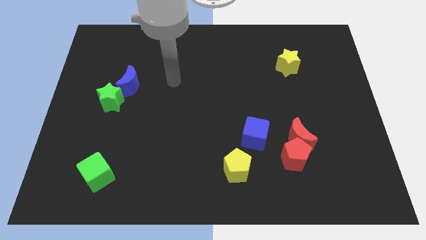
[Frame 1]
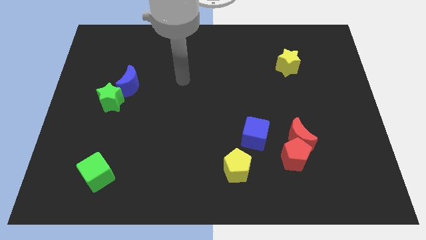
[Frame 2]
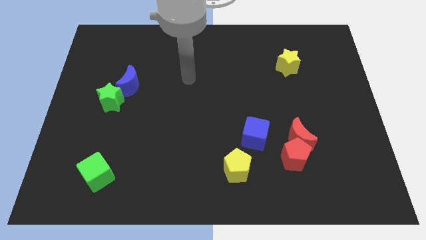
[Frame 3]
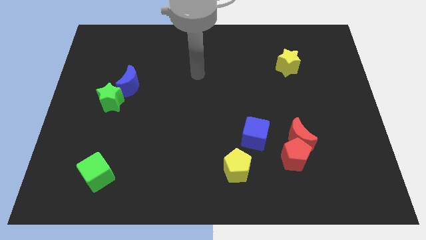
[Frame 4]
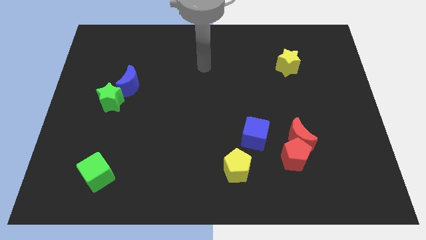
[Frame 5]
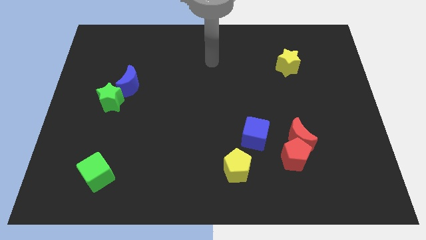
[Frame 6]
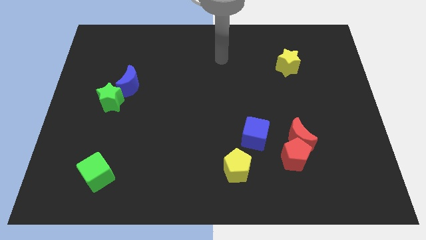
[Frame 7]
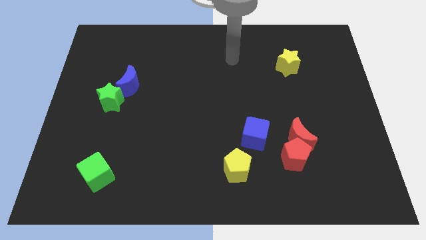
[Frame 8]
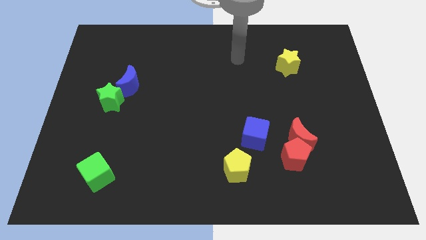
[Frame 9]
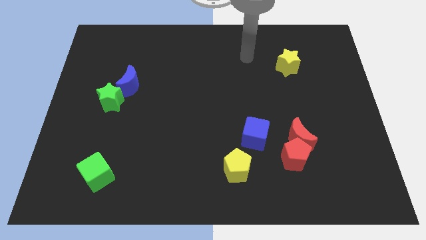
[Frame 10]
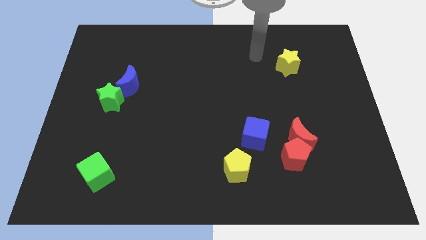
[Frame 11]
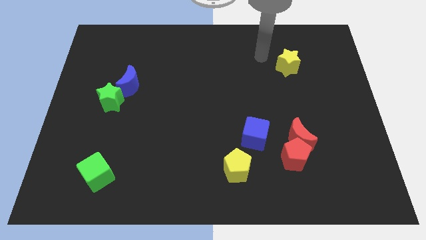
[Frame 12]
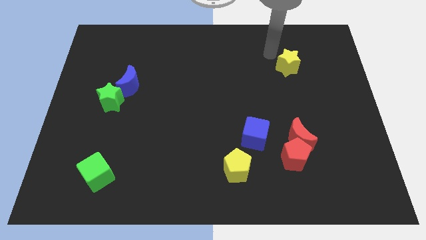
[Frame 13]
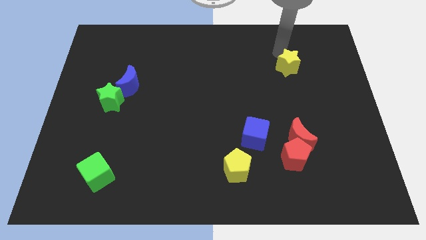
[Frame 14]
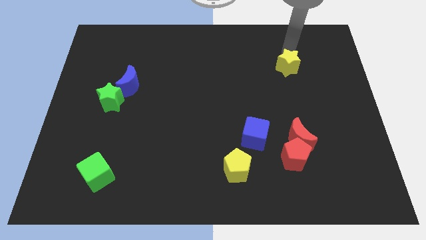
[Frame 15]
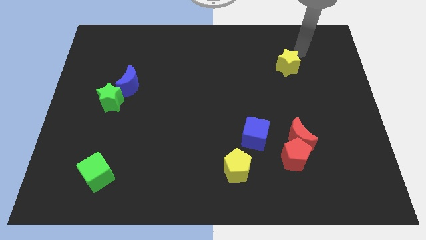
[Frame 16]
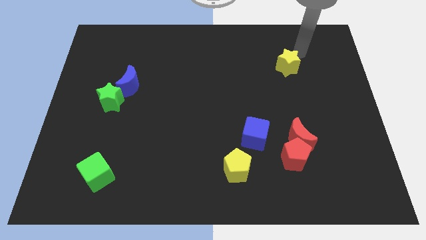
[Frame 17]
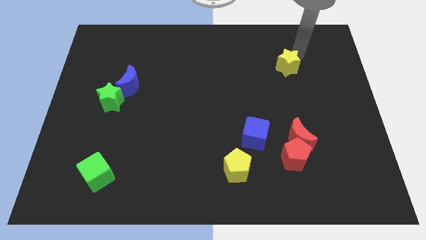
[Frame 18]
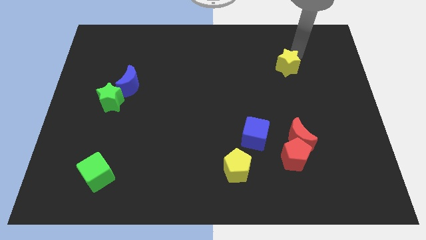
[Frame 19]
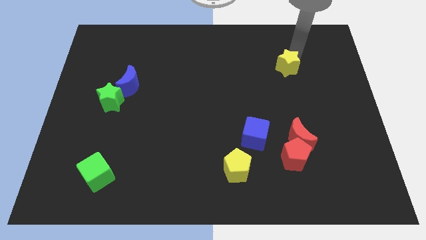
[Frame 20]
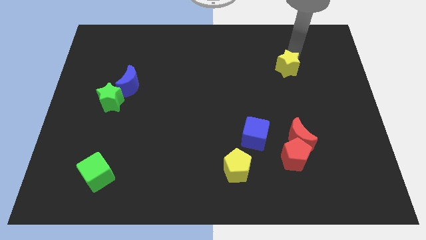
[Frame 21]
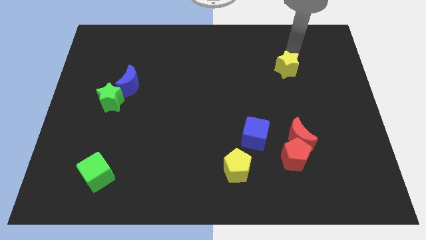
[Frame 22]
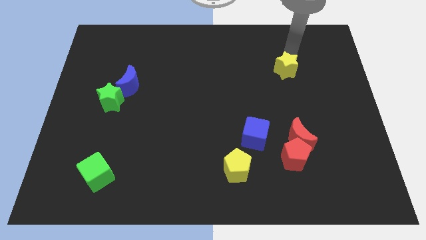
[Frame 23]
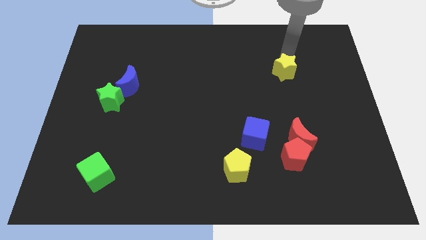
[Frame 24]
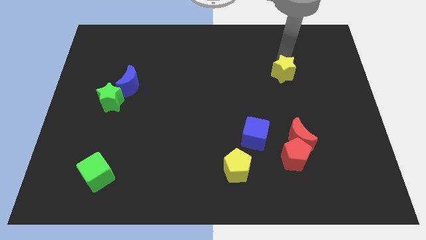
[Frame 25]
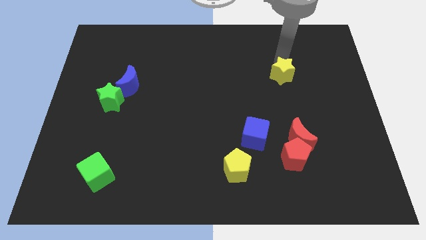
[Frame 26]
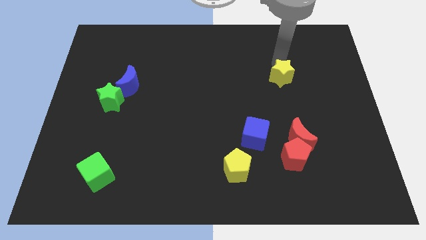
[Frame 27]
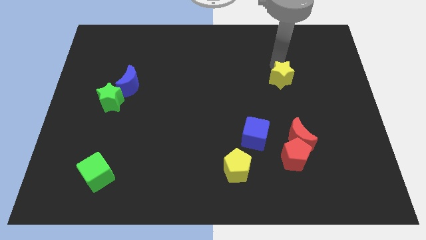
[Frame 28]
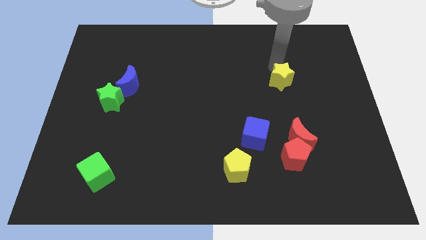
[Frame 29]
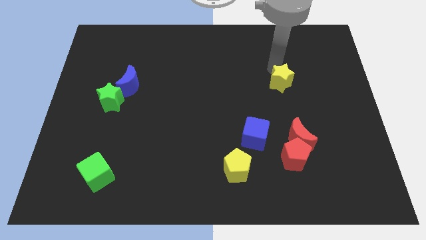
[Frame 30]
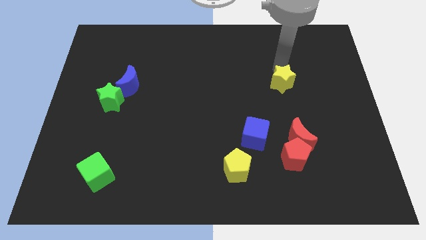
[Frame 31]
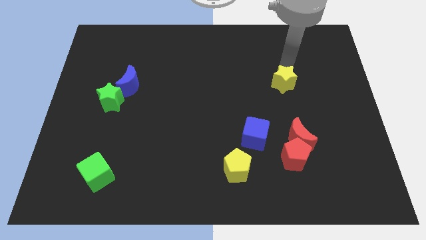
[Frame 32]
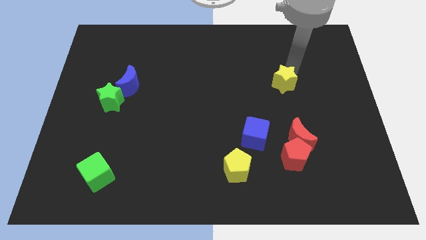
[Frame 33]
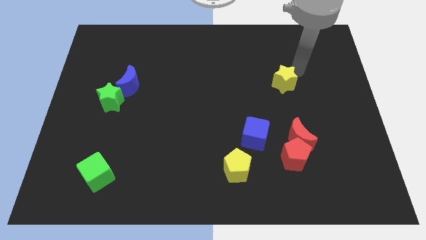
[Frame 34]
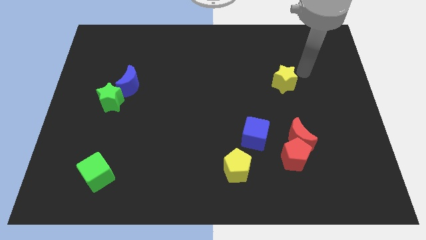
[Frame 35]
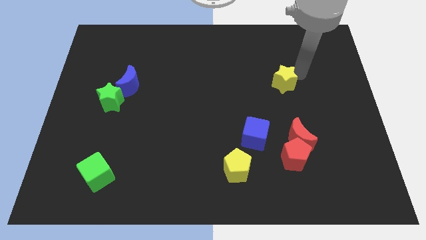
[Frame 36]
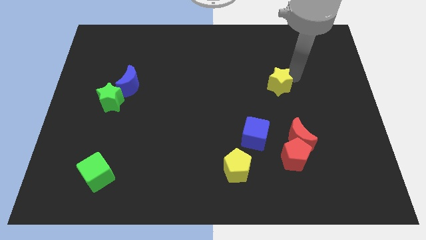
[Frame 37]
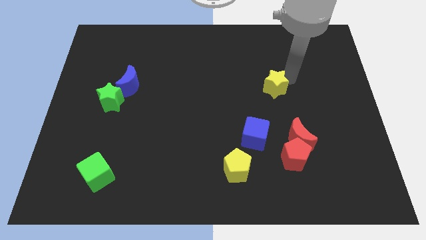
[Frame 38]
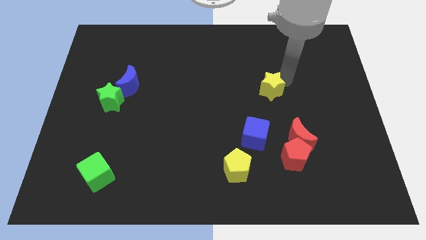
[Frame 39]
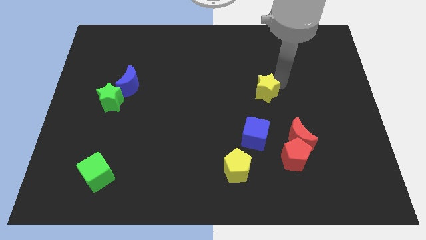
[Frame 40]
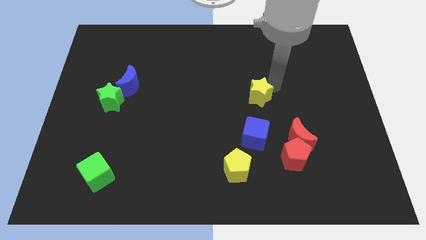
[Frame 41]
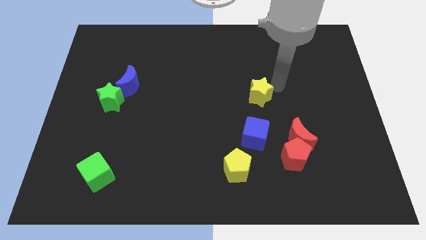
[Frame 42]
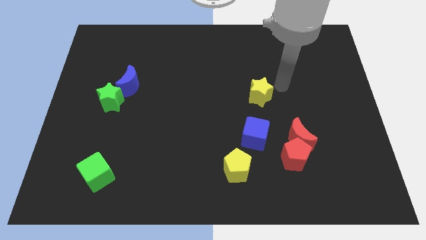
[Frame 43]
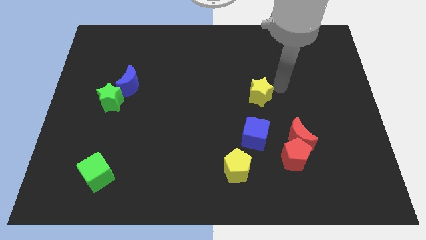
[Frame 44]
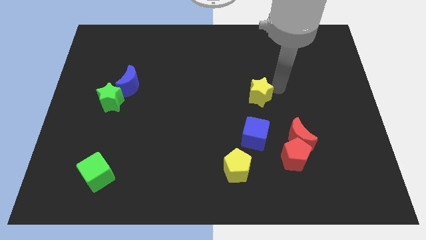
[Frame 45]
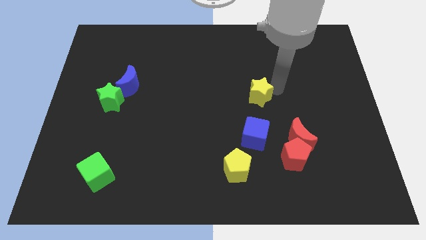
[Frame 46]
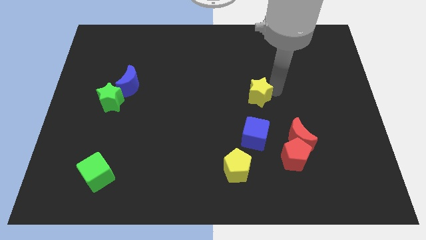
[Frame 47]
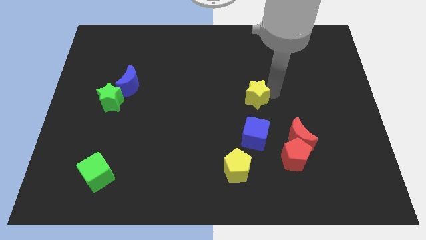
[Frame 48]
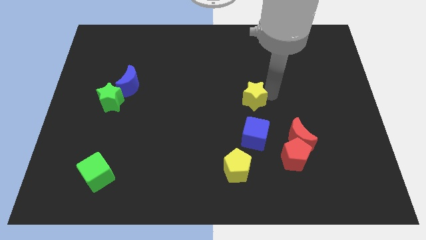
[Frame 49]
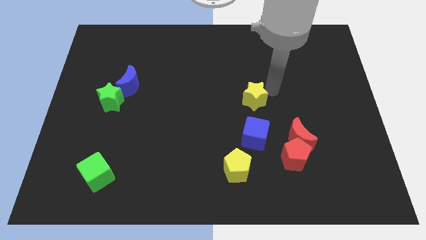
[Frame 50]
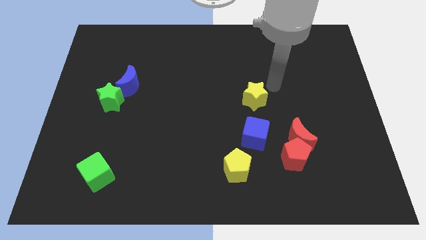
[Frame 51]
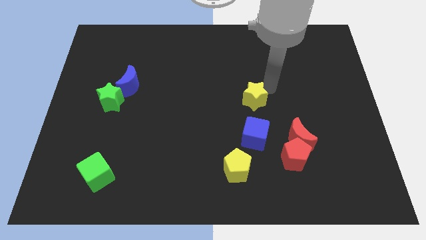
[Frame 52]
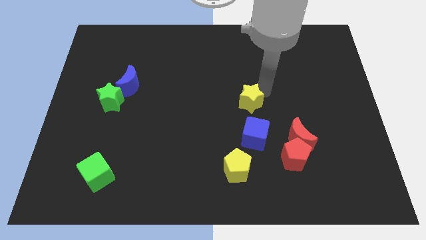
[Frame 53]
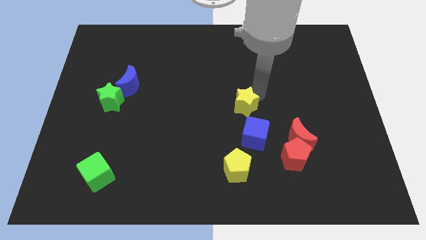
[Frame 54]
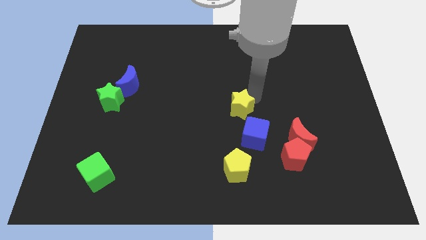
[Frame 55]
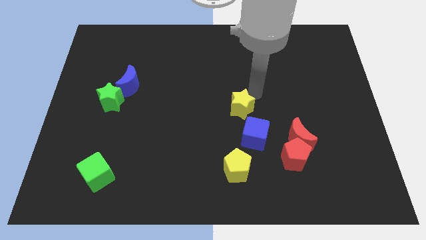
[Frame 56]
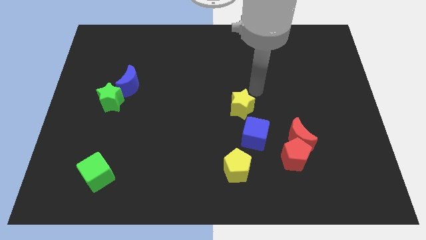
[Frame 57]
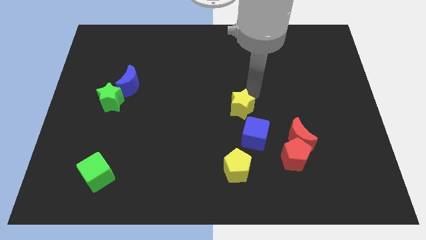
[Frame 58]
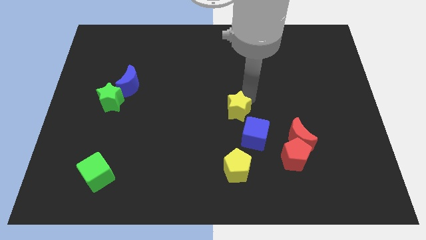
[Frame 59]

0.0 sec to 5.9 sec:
move the yellow star down and to the left diagonally

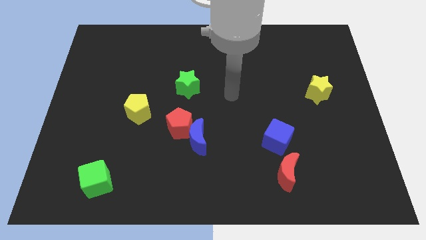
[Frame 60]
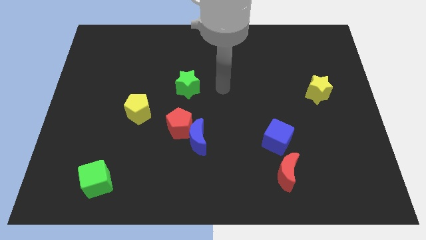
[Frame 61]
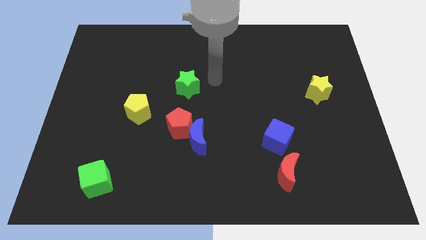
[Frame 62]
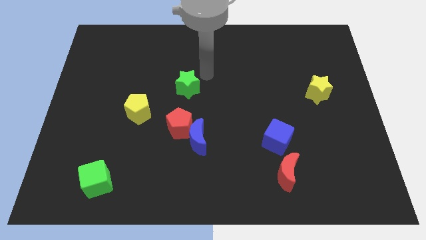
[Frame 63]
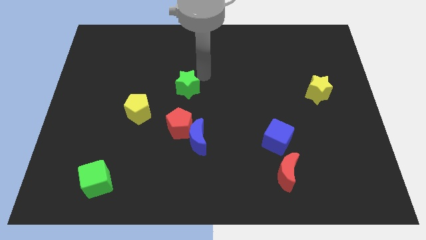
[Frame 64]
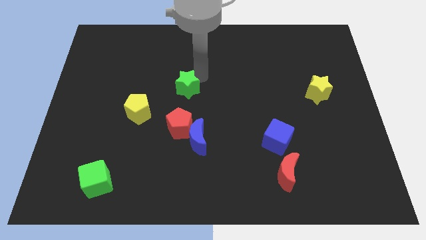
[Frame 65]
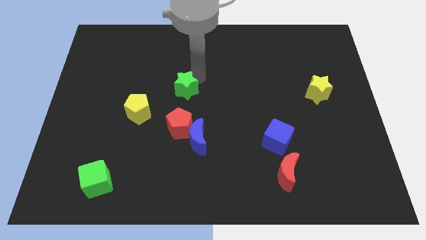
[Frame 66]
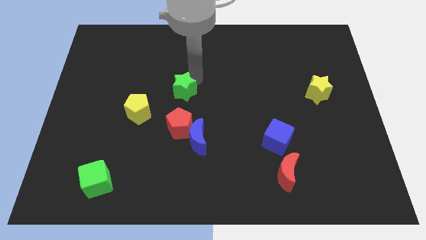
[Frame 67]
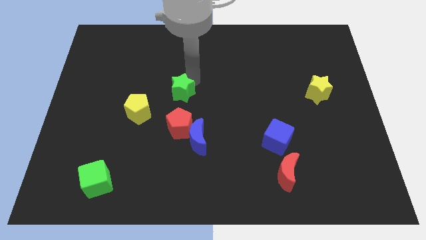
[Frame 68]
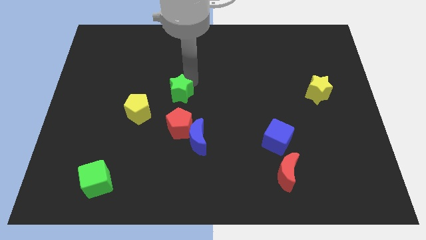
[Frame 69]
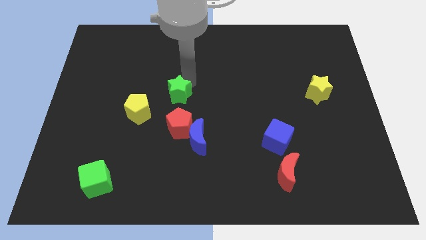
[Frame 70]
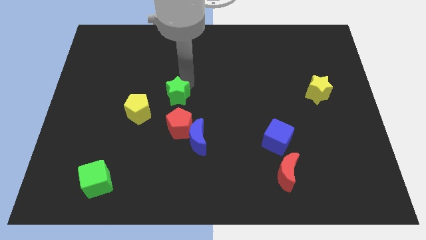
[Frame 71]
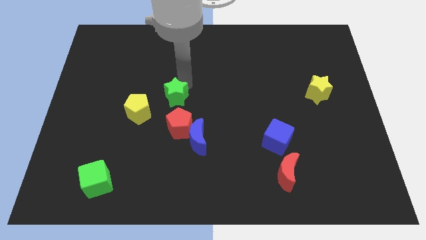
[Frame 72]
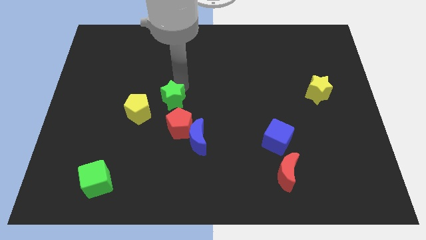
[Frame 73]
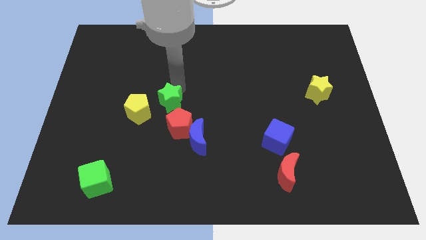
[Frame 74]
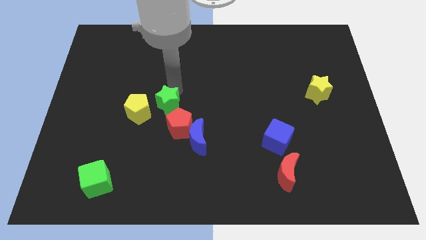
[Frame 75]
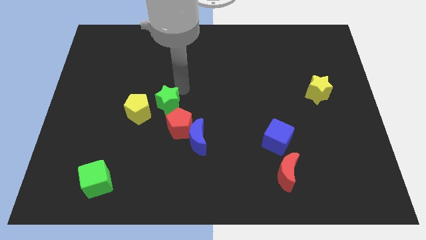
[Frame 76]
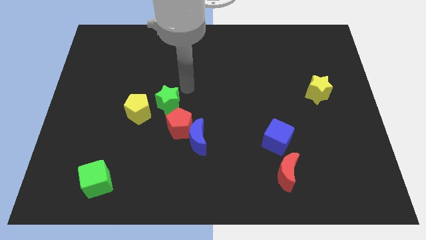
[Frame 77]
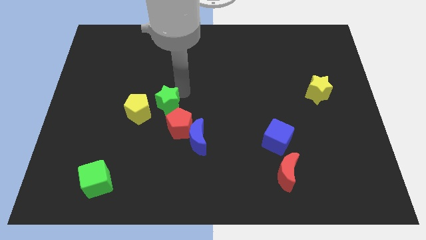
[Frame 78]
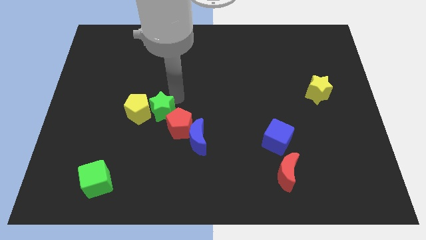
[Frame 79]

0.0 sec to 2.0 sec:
push the green star downwards and then left a little bit

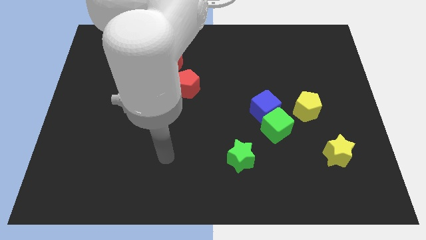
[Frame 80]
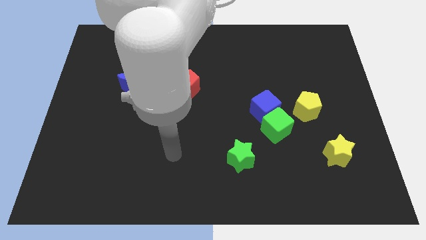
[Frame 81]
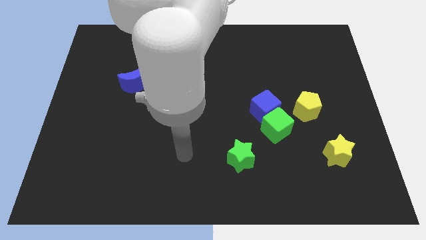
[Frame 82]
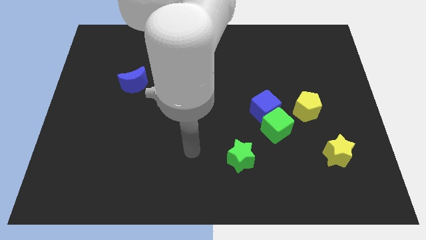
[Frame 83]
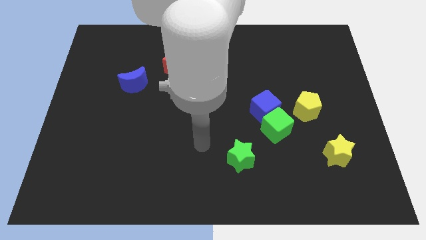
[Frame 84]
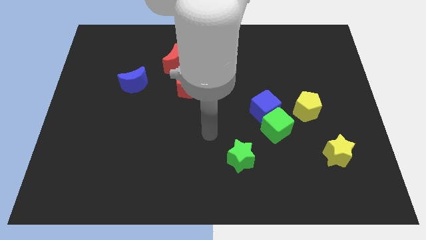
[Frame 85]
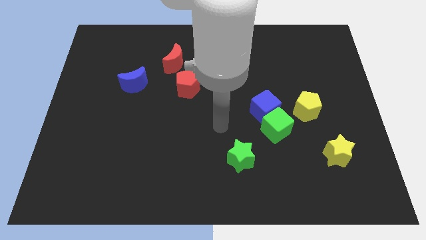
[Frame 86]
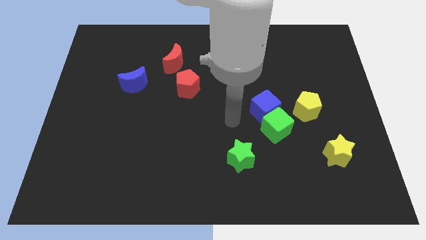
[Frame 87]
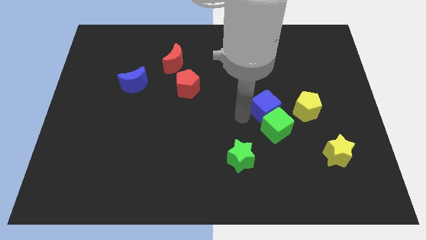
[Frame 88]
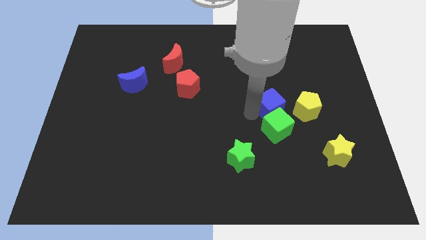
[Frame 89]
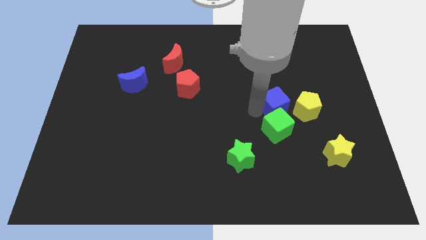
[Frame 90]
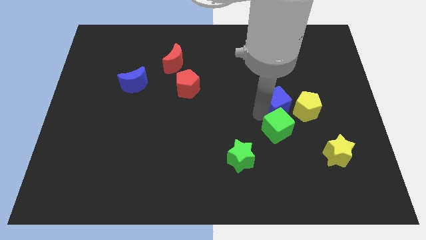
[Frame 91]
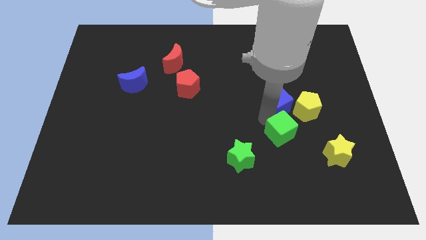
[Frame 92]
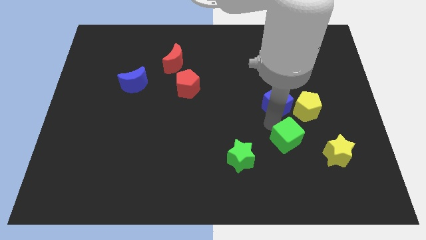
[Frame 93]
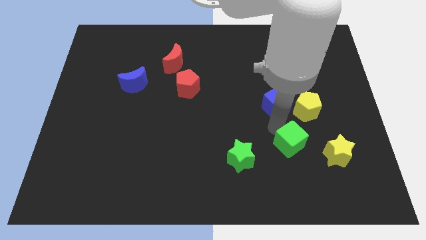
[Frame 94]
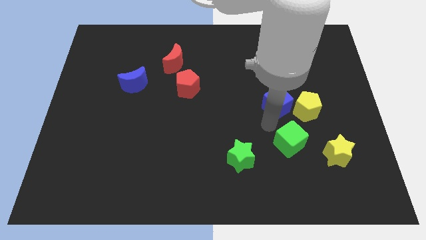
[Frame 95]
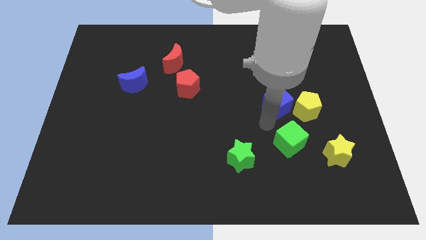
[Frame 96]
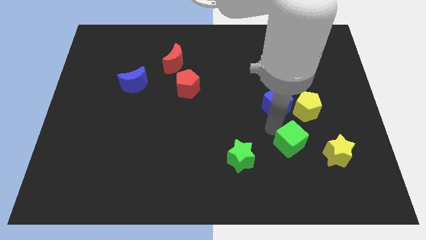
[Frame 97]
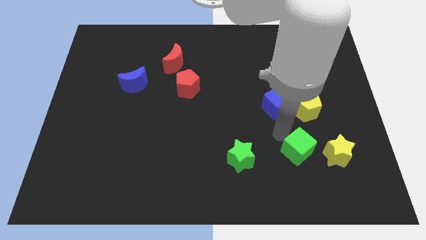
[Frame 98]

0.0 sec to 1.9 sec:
push the green cube slightly down and then right
